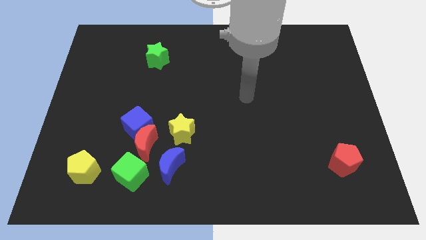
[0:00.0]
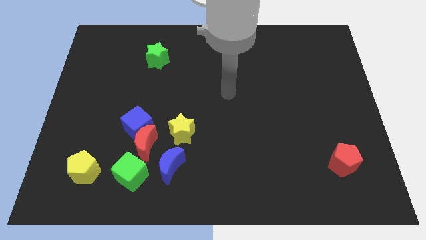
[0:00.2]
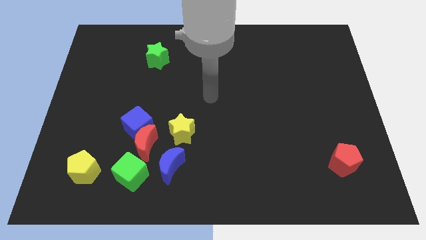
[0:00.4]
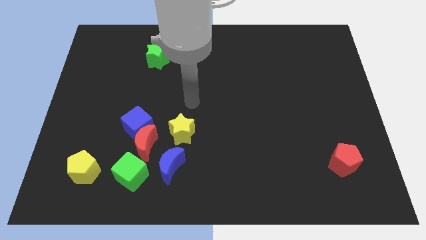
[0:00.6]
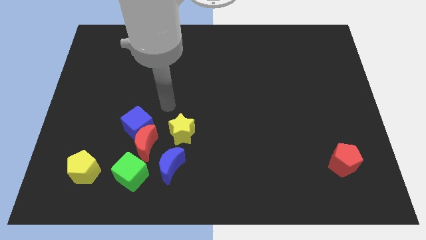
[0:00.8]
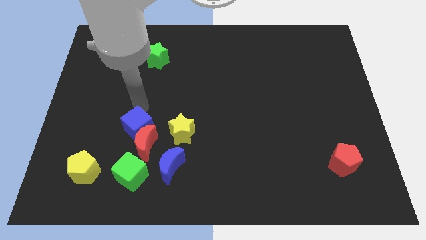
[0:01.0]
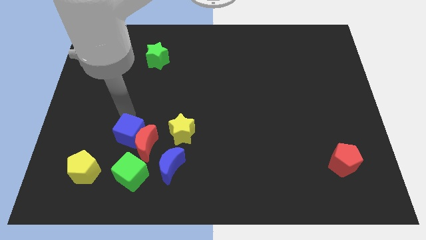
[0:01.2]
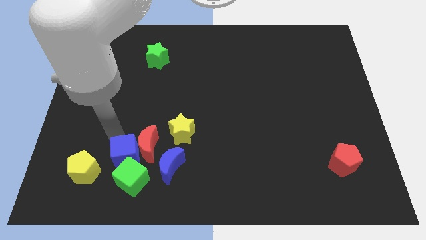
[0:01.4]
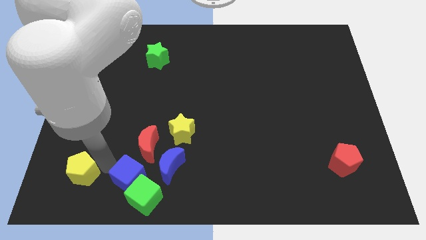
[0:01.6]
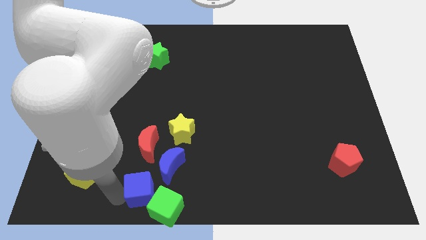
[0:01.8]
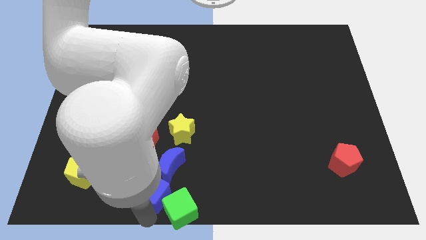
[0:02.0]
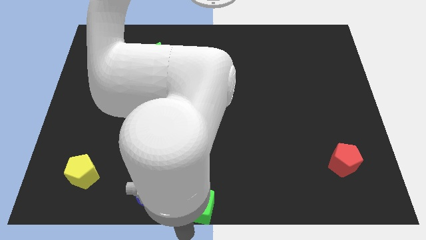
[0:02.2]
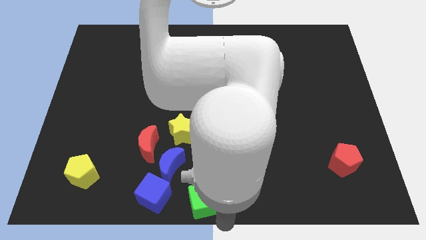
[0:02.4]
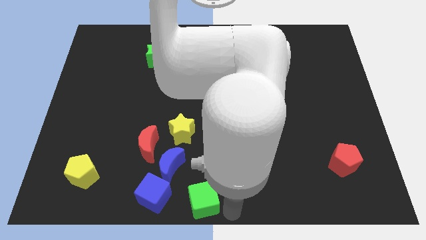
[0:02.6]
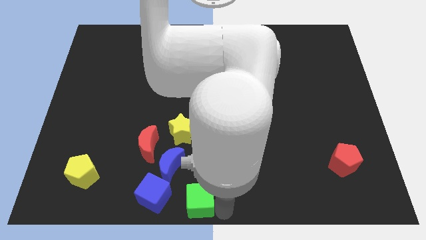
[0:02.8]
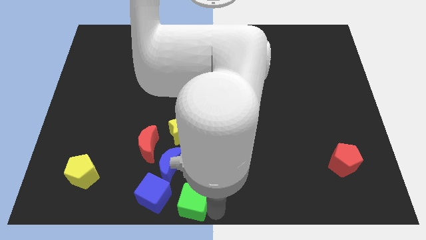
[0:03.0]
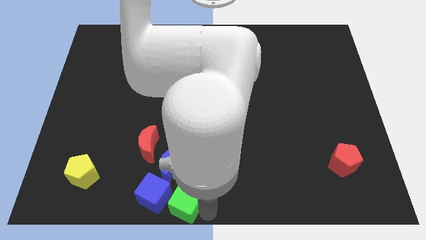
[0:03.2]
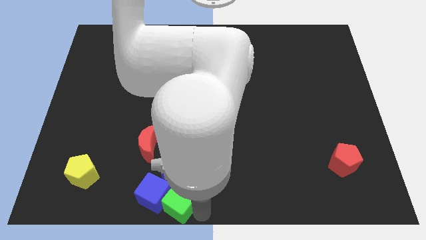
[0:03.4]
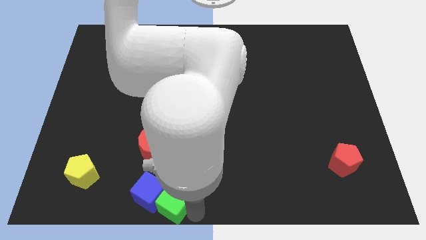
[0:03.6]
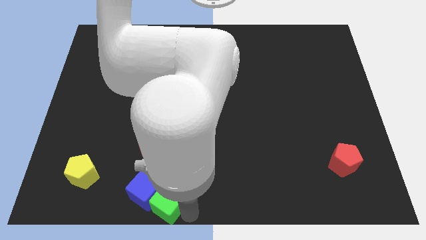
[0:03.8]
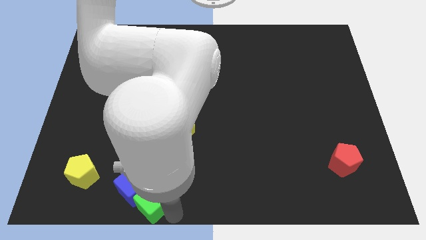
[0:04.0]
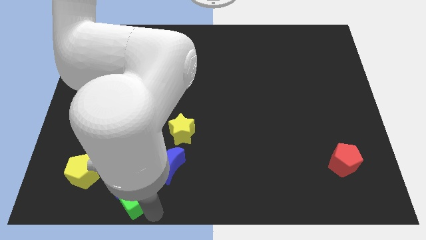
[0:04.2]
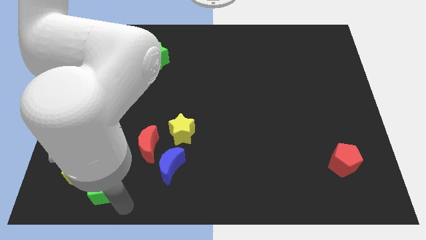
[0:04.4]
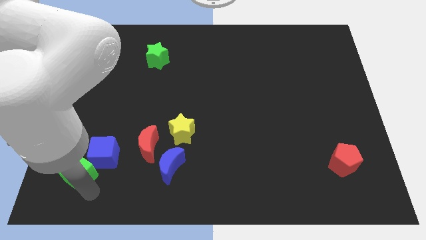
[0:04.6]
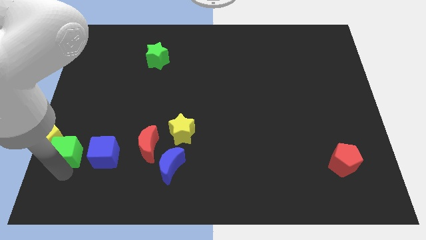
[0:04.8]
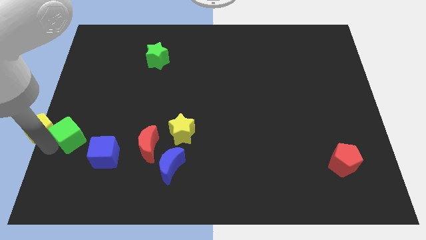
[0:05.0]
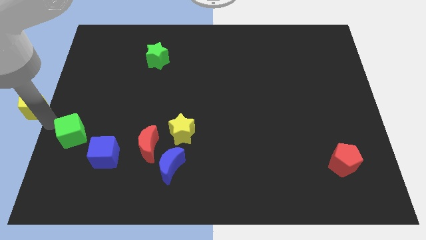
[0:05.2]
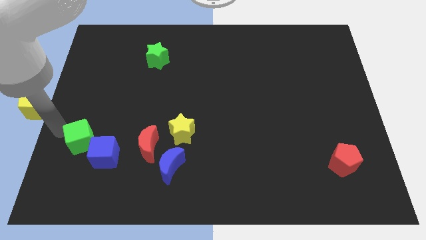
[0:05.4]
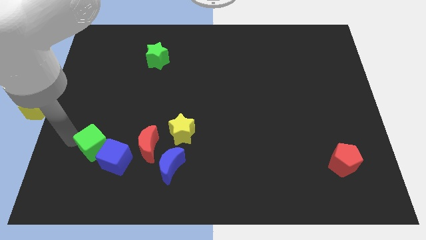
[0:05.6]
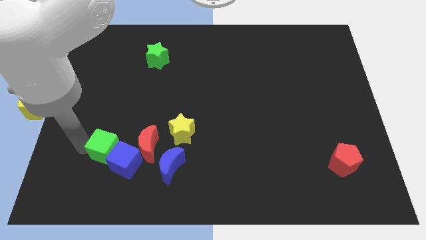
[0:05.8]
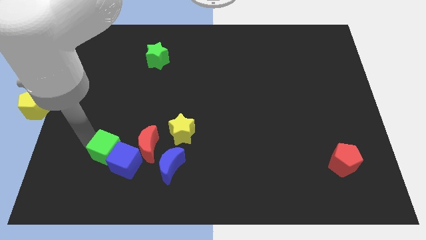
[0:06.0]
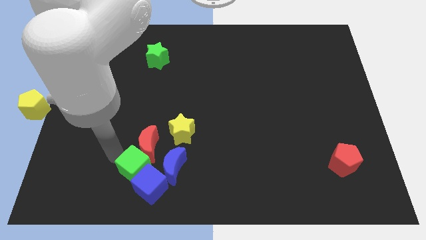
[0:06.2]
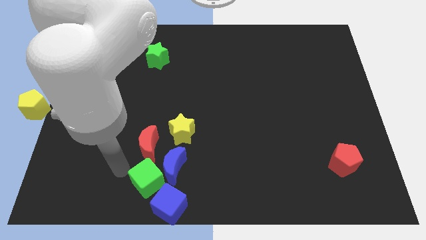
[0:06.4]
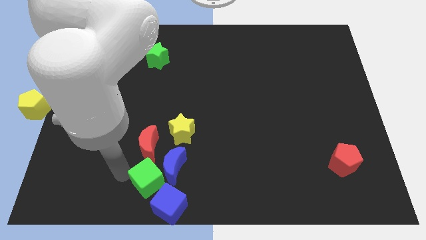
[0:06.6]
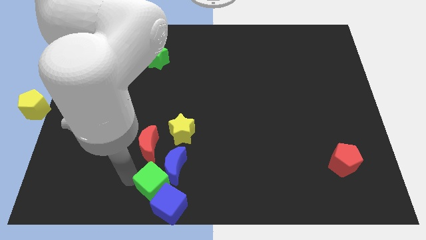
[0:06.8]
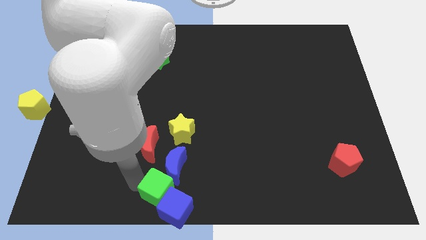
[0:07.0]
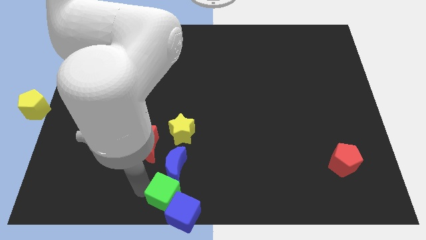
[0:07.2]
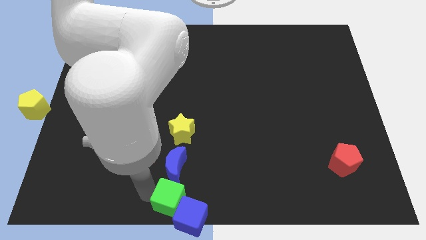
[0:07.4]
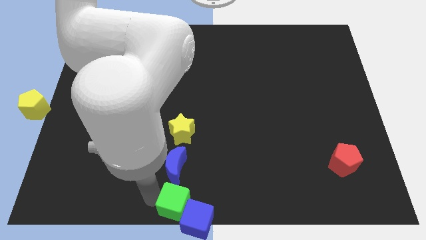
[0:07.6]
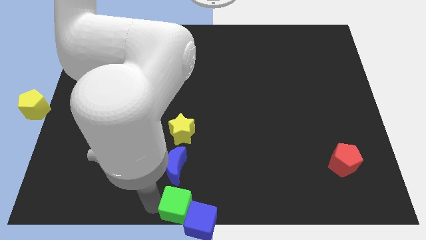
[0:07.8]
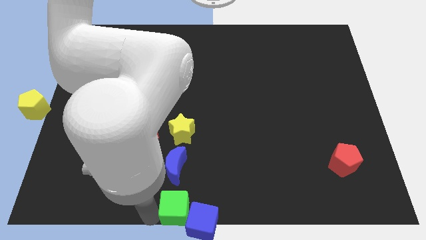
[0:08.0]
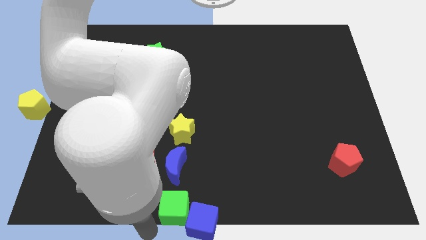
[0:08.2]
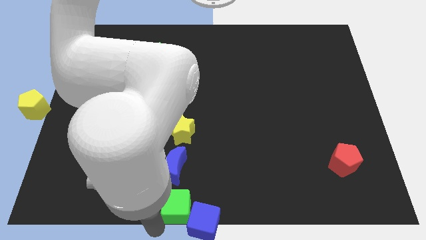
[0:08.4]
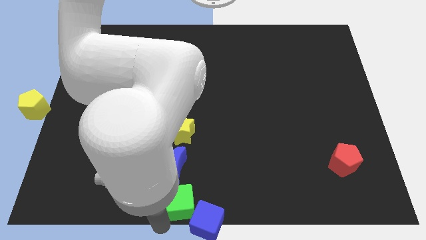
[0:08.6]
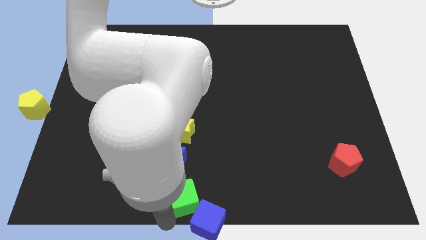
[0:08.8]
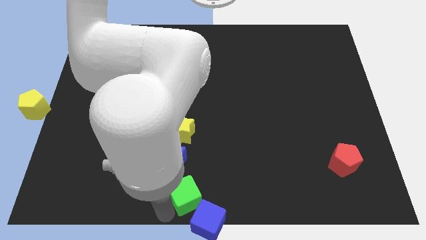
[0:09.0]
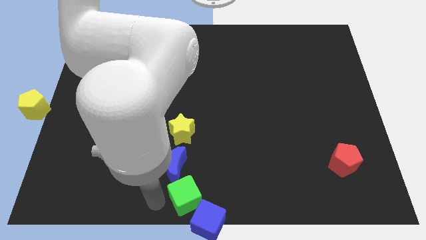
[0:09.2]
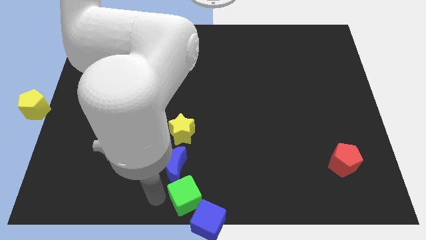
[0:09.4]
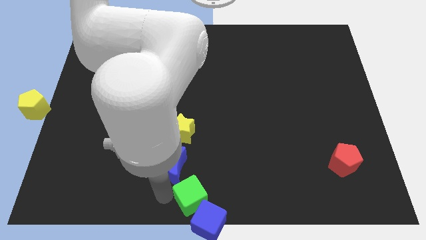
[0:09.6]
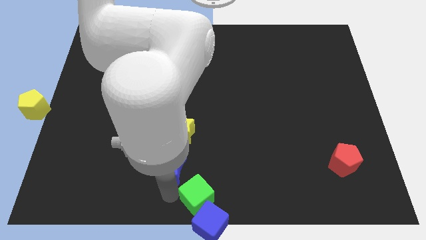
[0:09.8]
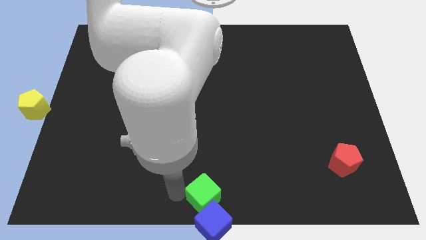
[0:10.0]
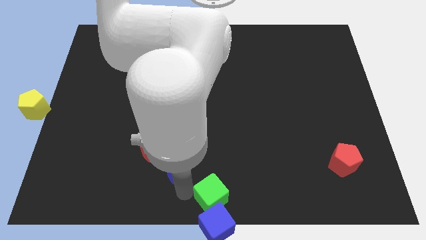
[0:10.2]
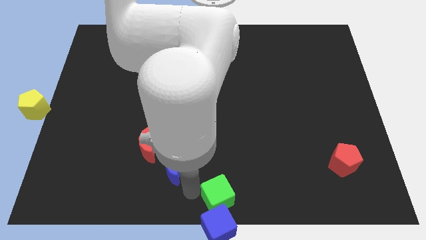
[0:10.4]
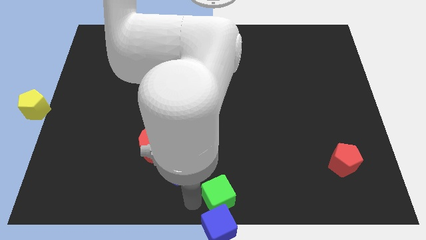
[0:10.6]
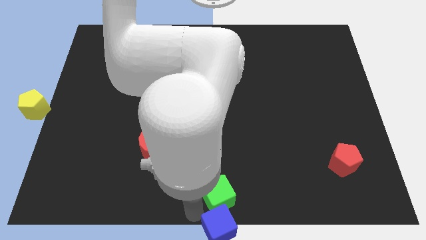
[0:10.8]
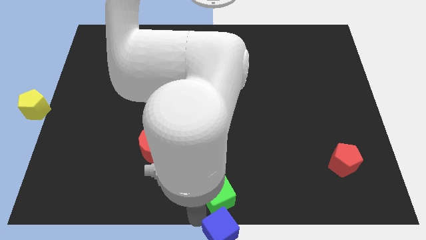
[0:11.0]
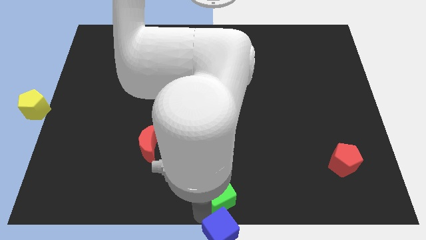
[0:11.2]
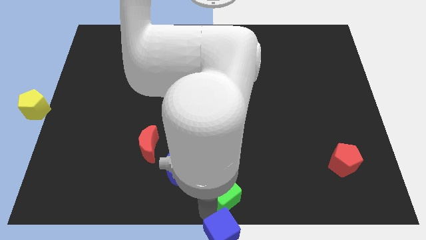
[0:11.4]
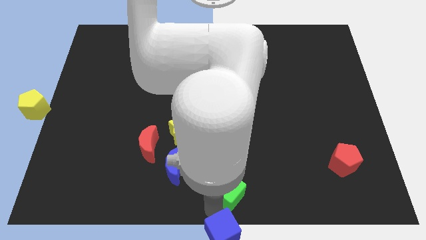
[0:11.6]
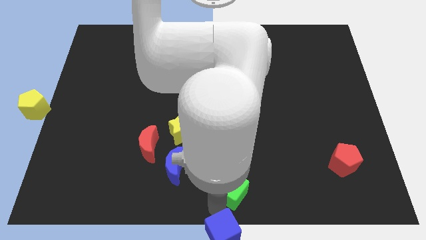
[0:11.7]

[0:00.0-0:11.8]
move the green cube right

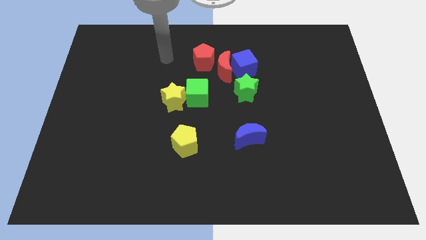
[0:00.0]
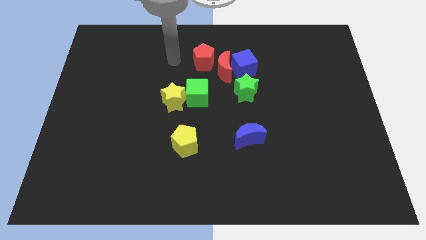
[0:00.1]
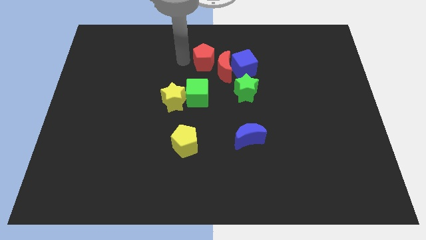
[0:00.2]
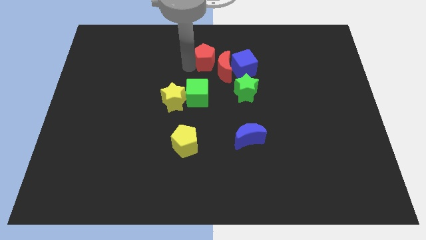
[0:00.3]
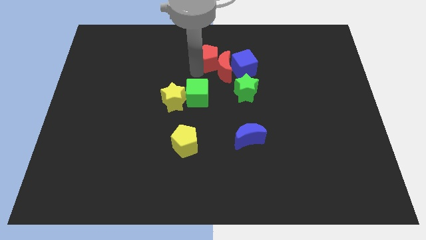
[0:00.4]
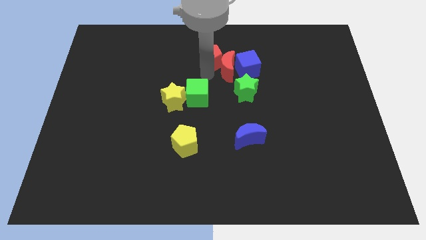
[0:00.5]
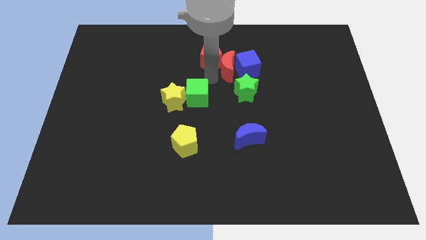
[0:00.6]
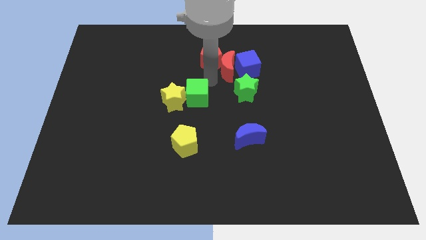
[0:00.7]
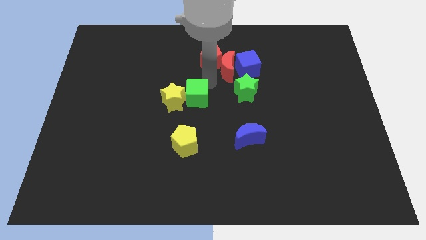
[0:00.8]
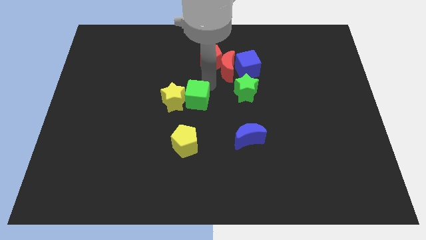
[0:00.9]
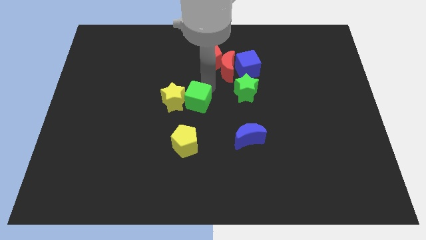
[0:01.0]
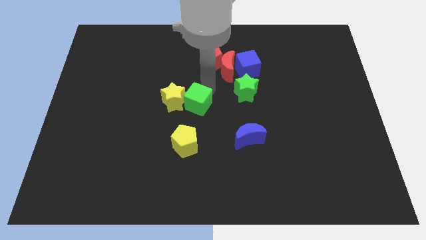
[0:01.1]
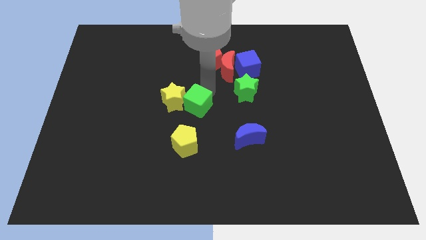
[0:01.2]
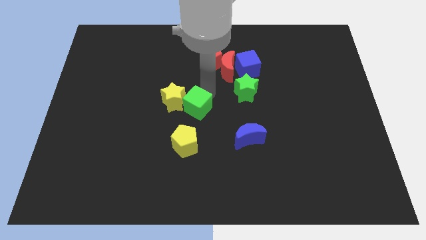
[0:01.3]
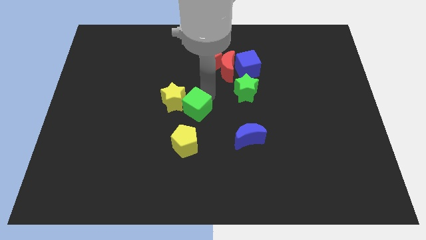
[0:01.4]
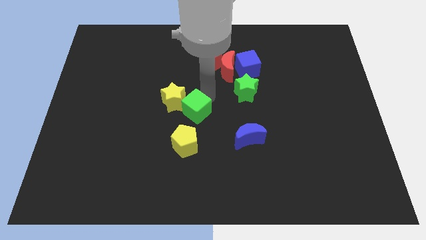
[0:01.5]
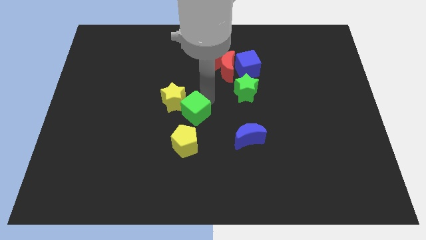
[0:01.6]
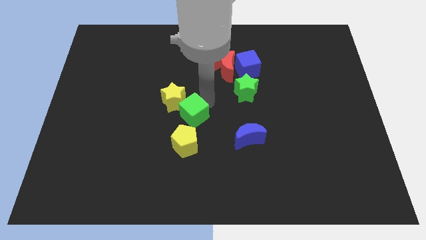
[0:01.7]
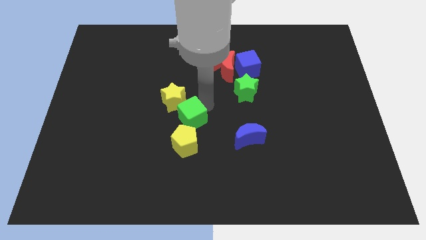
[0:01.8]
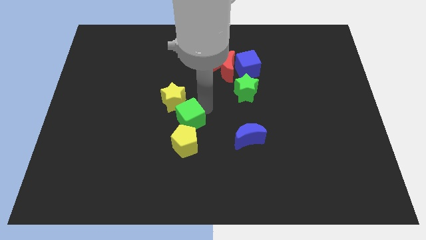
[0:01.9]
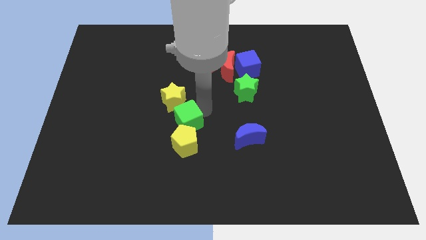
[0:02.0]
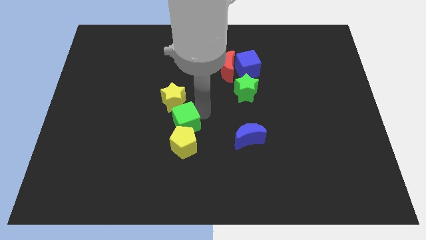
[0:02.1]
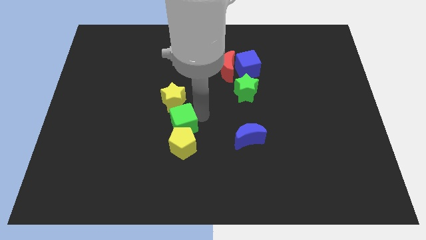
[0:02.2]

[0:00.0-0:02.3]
move the green cube slightly down and to the left
